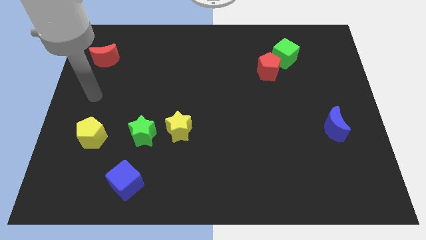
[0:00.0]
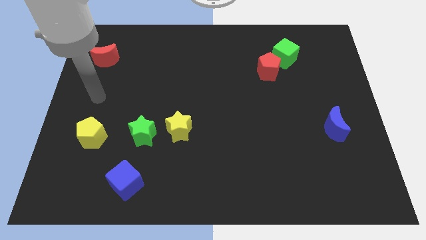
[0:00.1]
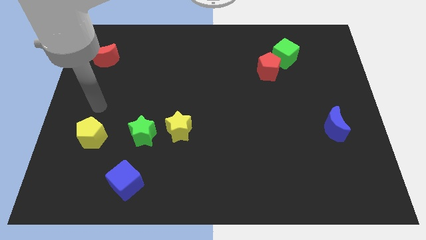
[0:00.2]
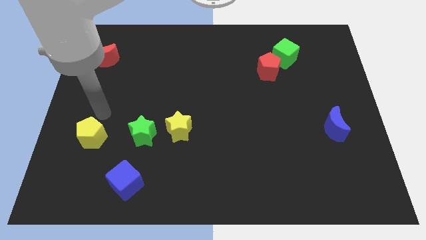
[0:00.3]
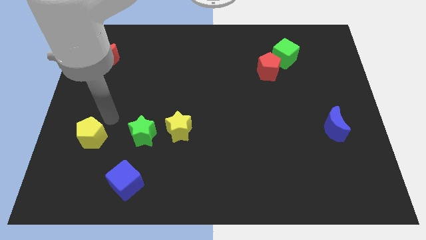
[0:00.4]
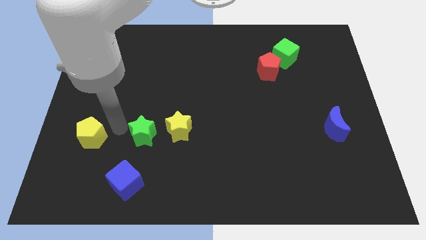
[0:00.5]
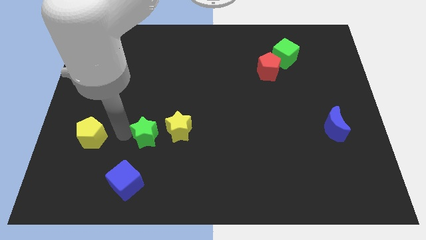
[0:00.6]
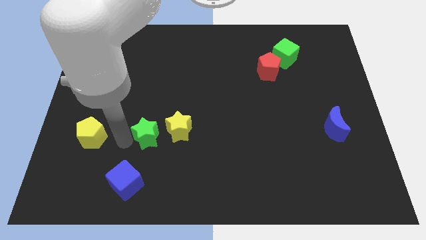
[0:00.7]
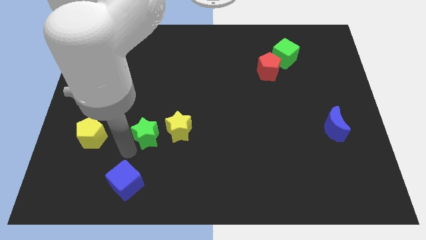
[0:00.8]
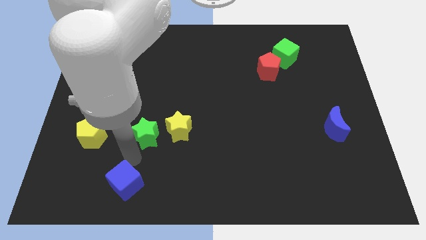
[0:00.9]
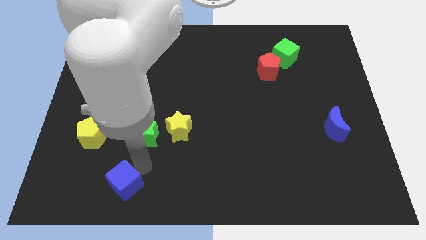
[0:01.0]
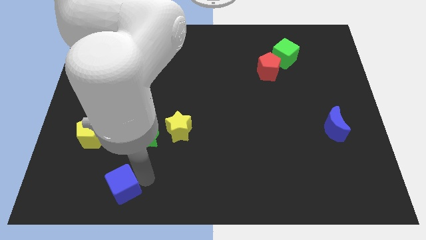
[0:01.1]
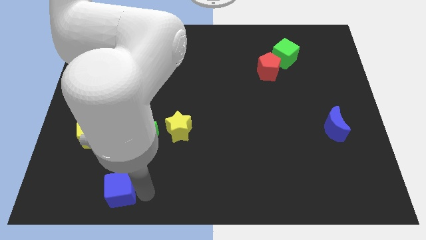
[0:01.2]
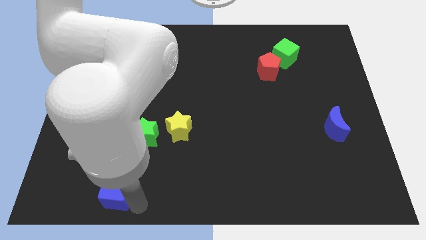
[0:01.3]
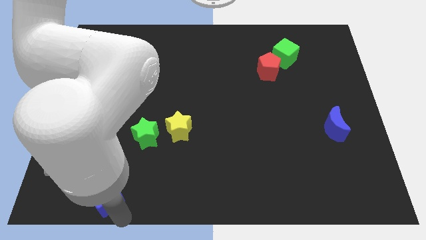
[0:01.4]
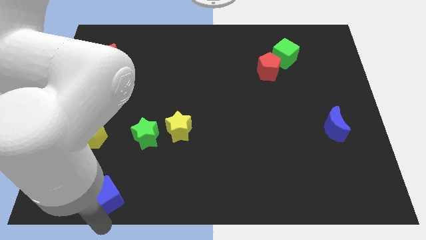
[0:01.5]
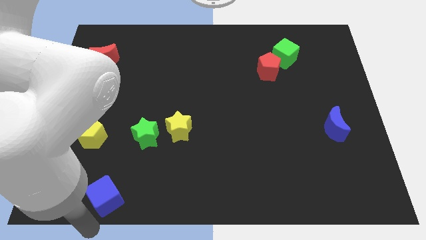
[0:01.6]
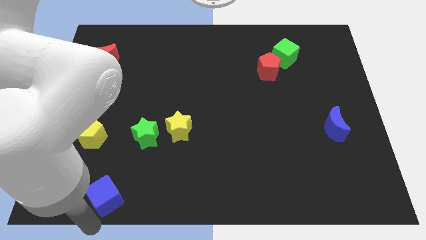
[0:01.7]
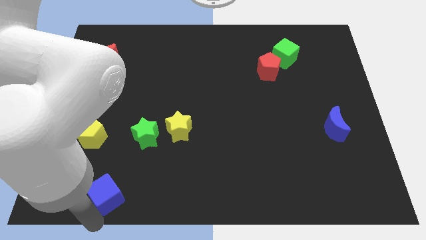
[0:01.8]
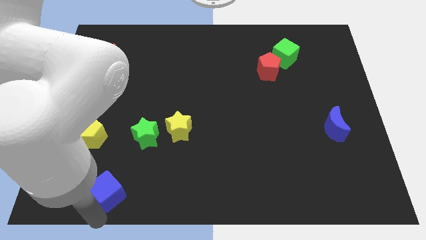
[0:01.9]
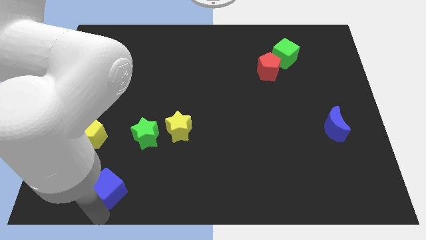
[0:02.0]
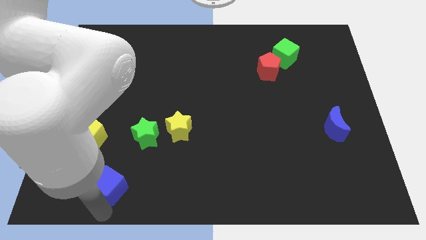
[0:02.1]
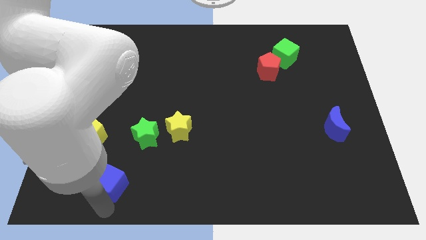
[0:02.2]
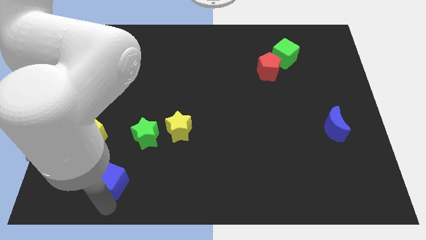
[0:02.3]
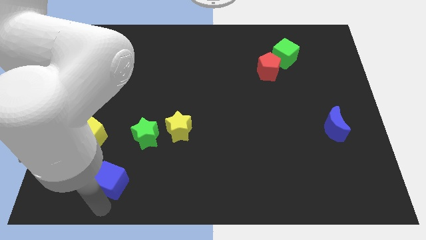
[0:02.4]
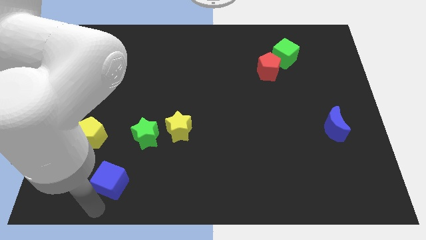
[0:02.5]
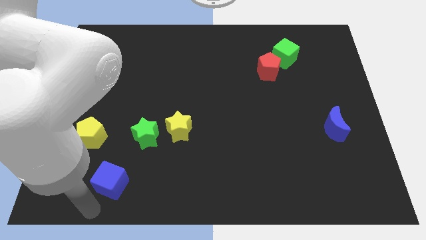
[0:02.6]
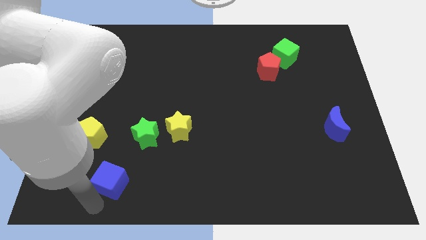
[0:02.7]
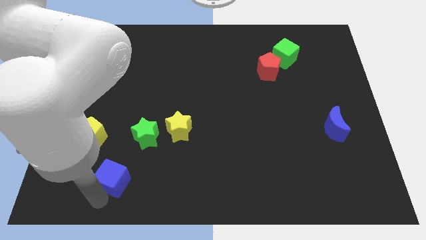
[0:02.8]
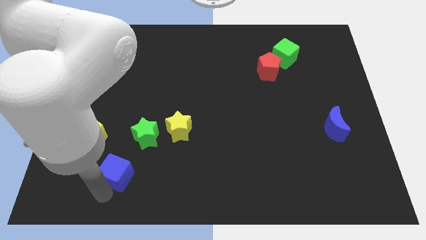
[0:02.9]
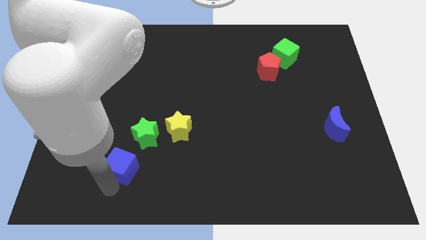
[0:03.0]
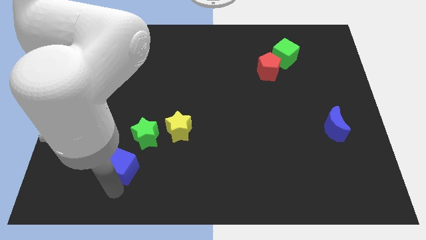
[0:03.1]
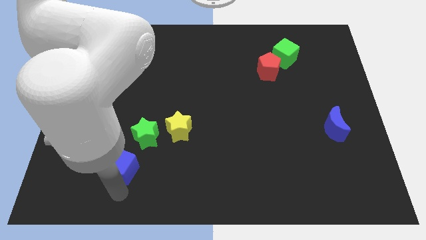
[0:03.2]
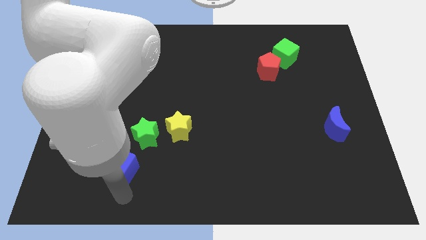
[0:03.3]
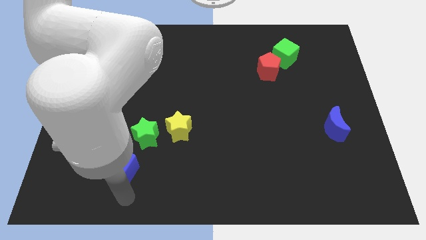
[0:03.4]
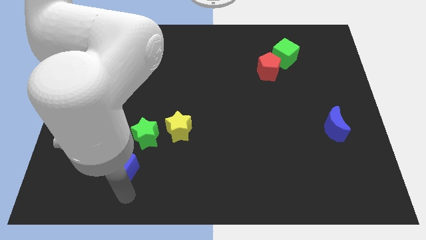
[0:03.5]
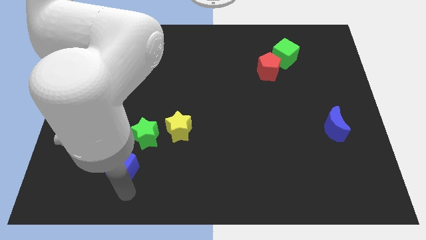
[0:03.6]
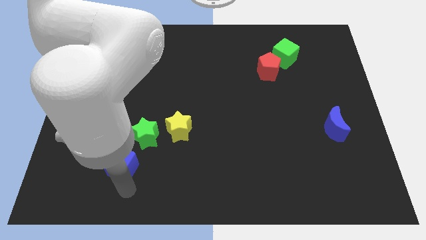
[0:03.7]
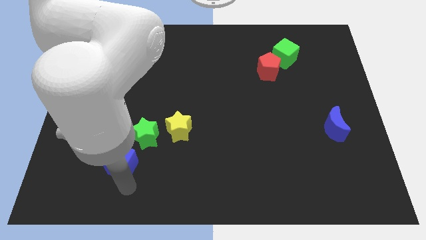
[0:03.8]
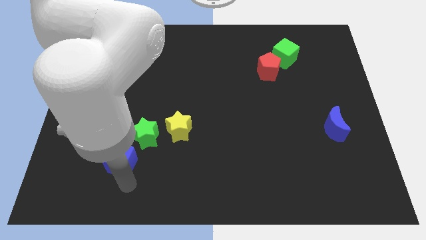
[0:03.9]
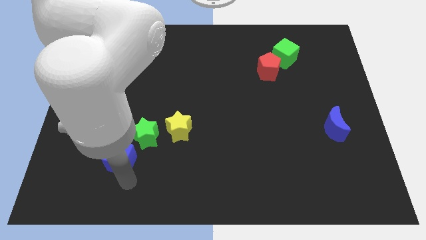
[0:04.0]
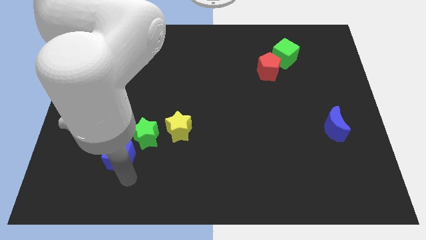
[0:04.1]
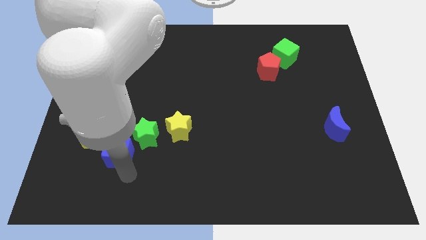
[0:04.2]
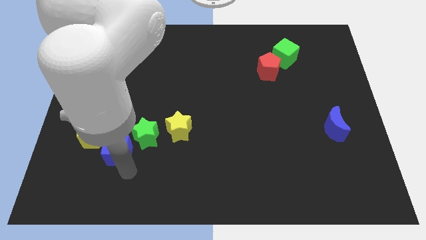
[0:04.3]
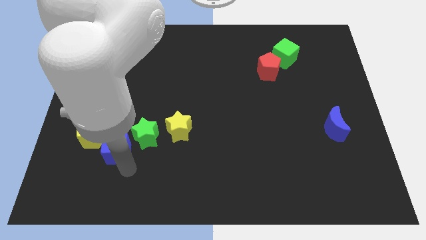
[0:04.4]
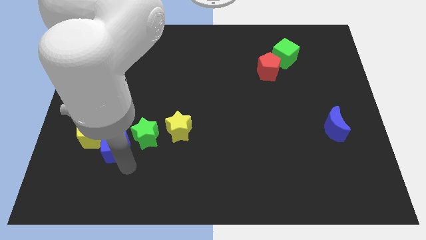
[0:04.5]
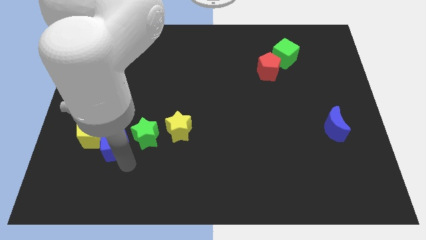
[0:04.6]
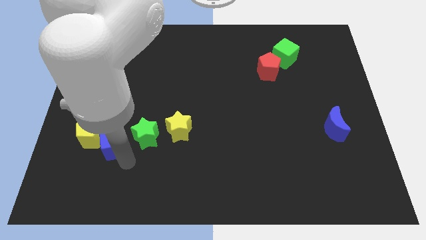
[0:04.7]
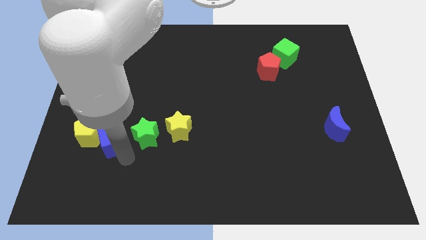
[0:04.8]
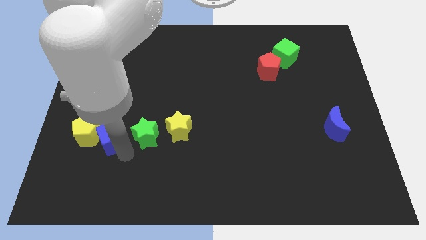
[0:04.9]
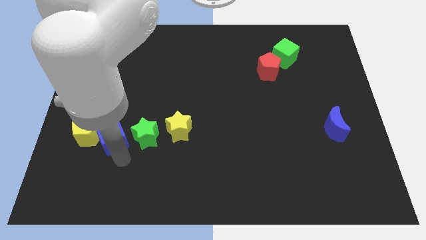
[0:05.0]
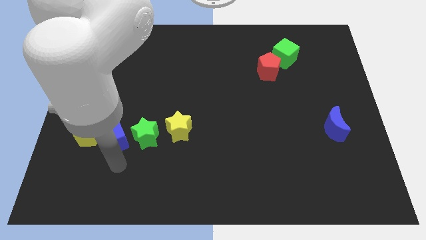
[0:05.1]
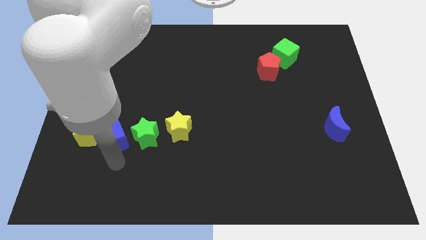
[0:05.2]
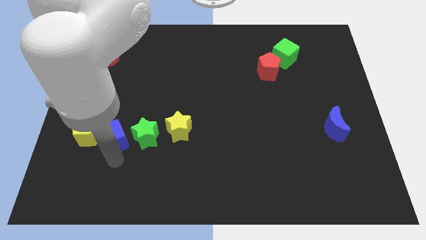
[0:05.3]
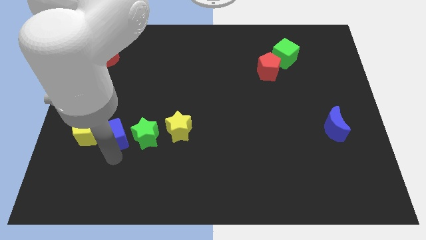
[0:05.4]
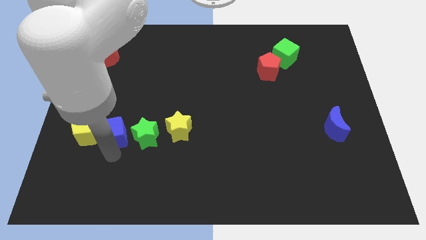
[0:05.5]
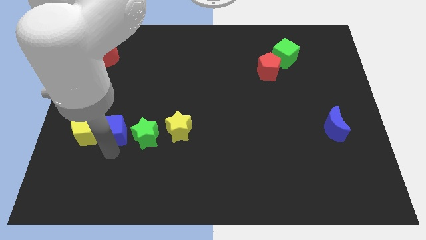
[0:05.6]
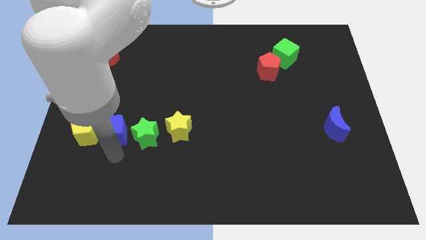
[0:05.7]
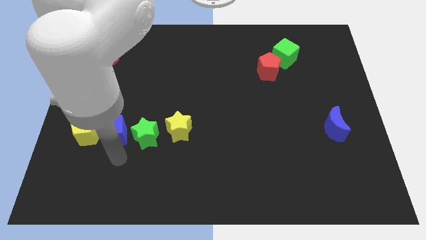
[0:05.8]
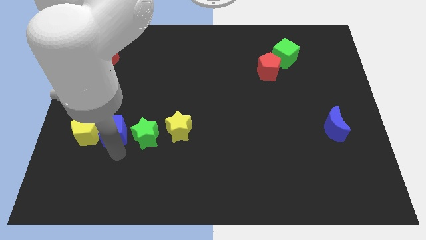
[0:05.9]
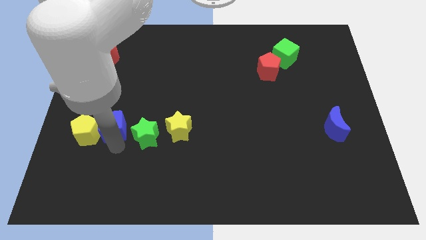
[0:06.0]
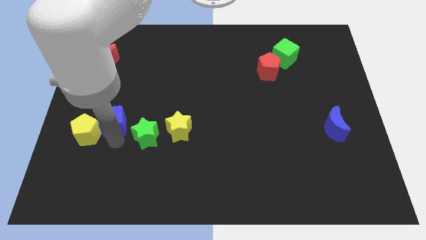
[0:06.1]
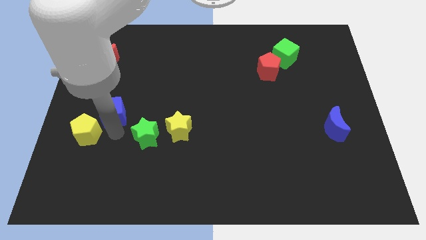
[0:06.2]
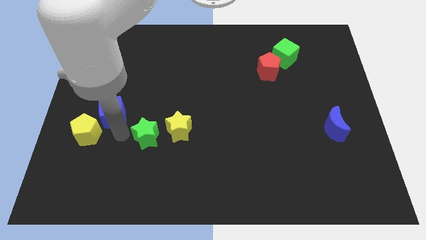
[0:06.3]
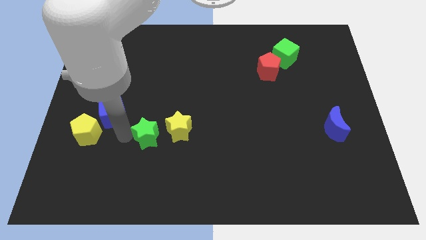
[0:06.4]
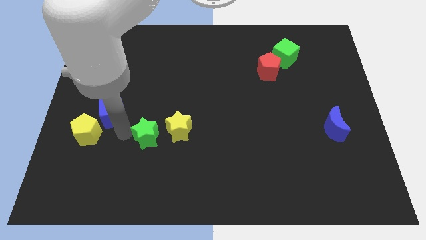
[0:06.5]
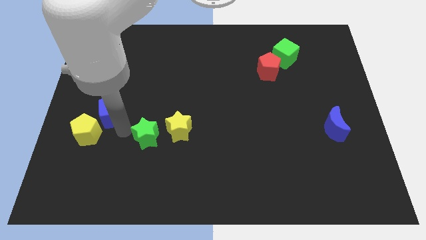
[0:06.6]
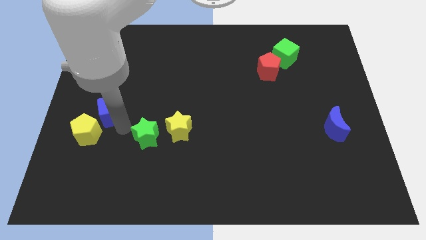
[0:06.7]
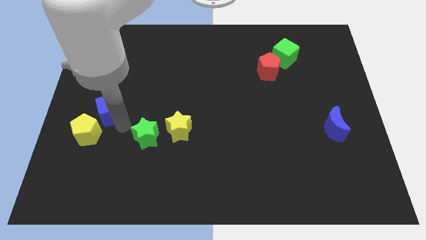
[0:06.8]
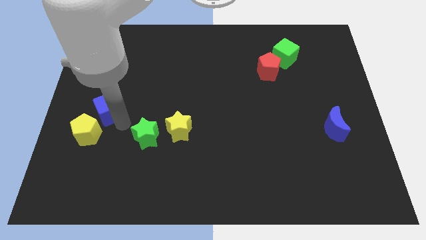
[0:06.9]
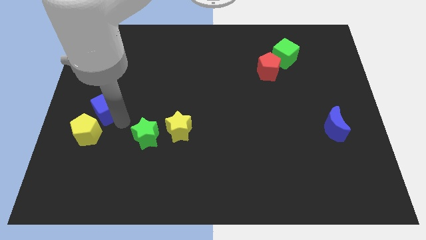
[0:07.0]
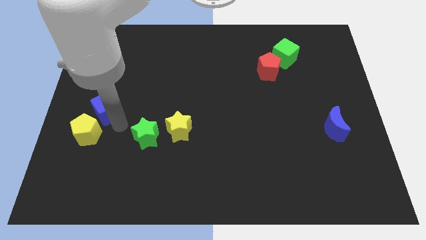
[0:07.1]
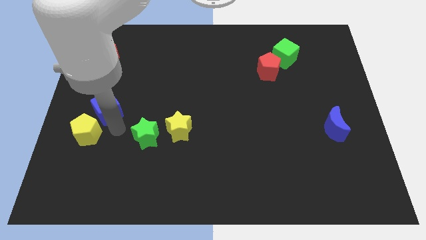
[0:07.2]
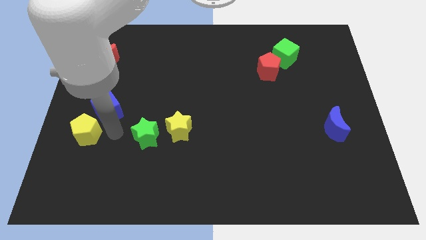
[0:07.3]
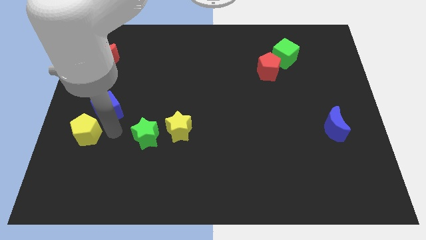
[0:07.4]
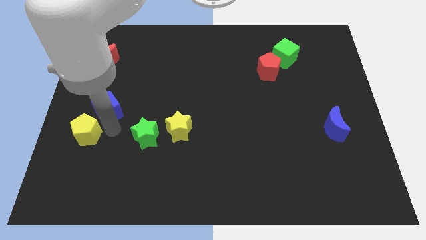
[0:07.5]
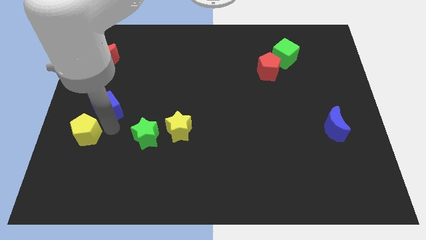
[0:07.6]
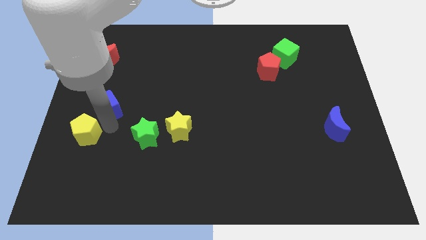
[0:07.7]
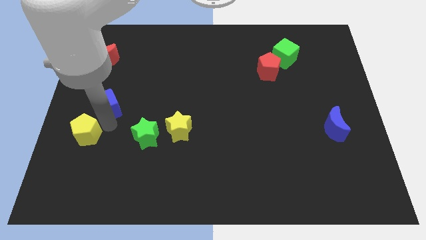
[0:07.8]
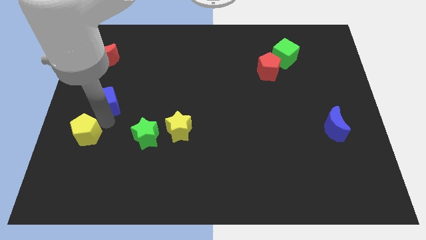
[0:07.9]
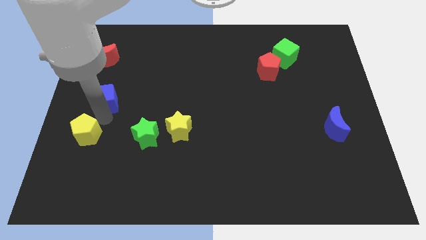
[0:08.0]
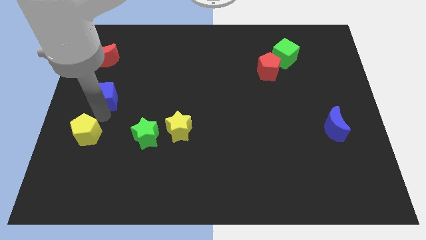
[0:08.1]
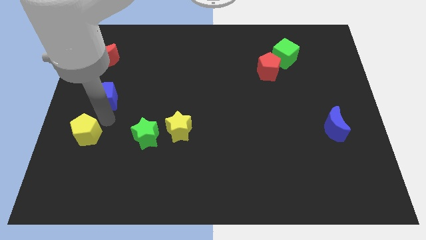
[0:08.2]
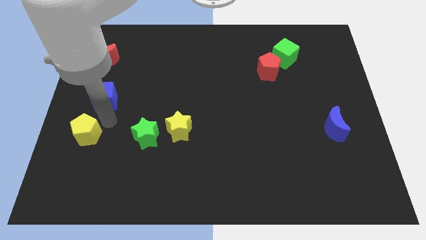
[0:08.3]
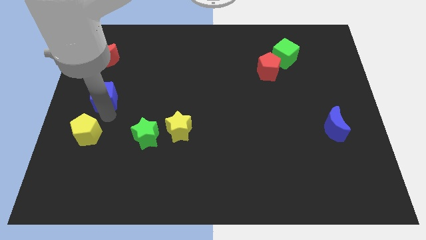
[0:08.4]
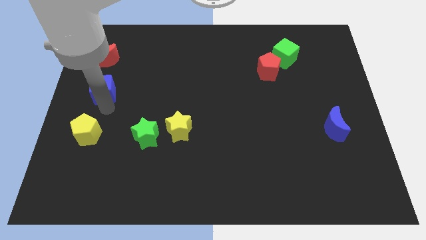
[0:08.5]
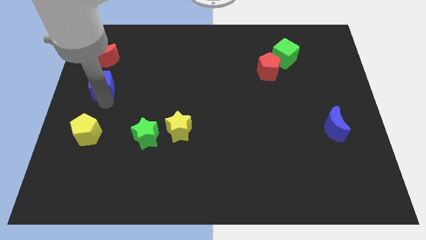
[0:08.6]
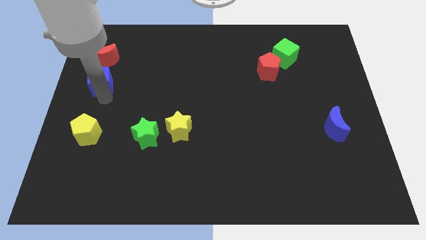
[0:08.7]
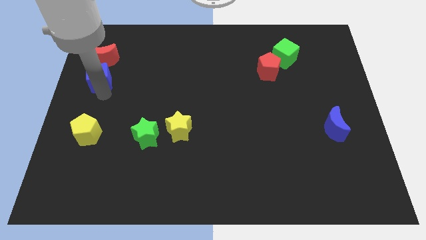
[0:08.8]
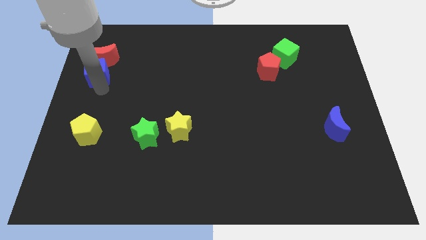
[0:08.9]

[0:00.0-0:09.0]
put the blue cube next to the red moon
